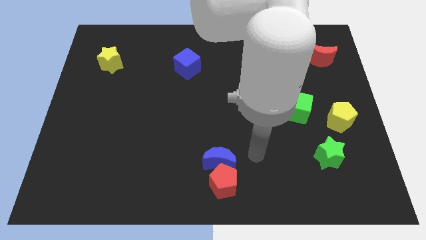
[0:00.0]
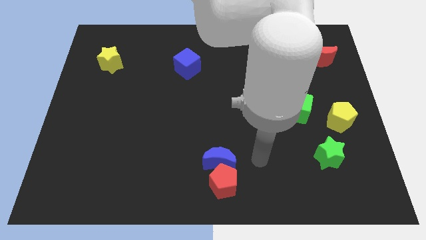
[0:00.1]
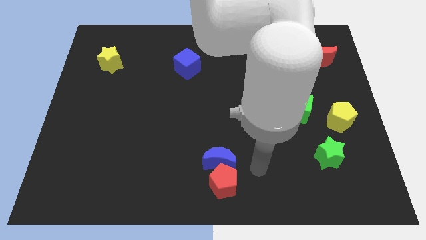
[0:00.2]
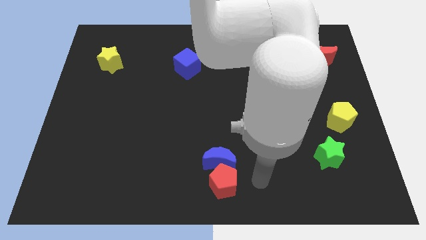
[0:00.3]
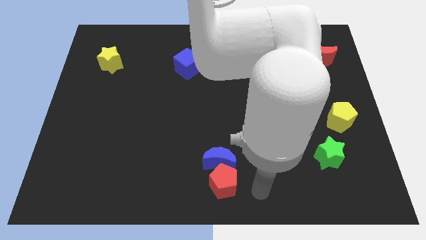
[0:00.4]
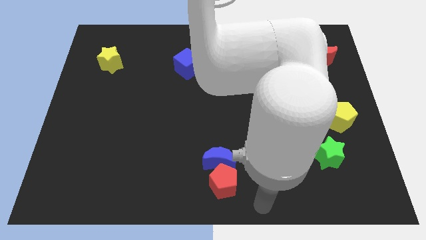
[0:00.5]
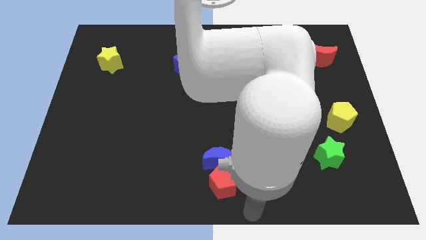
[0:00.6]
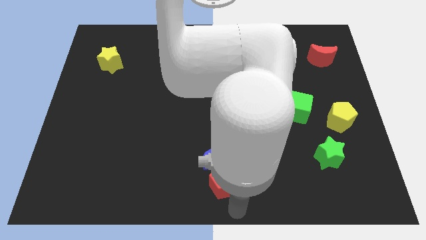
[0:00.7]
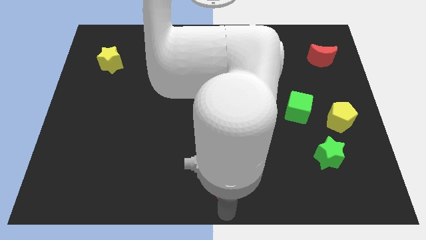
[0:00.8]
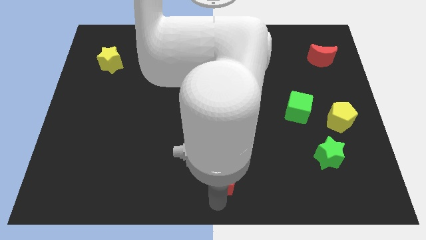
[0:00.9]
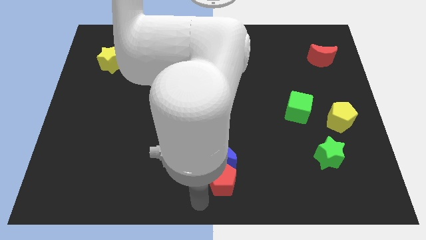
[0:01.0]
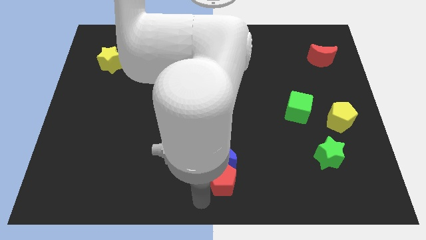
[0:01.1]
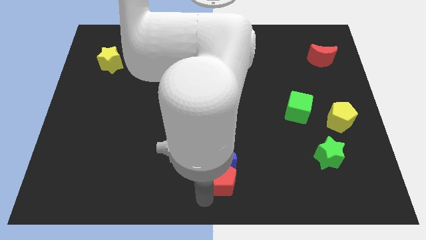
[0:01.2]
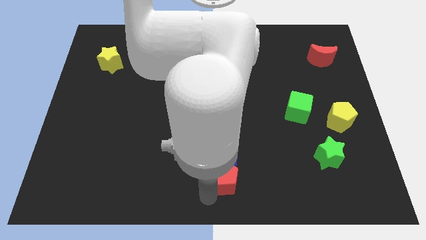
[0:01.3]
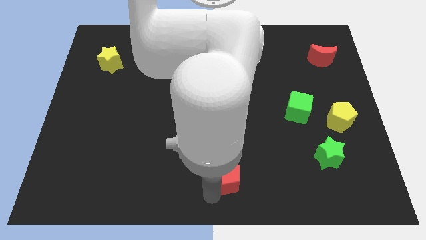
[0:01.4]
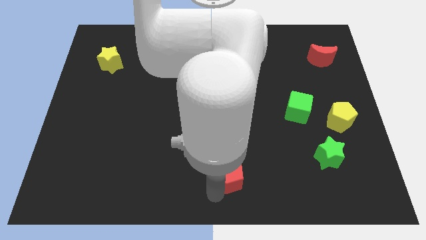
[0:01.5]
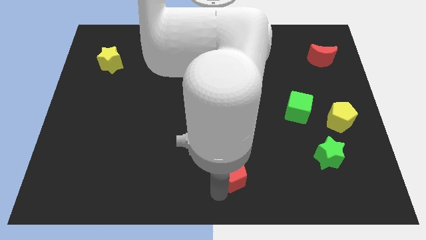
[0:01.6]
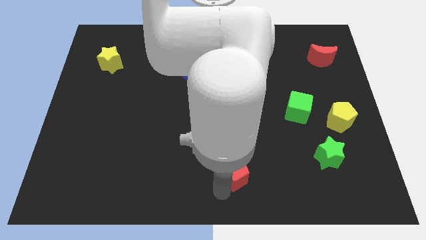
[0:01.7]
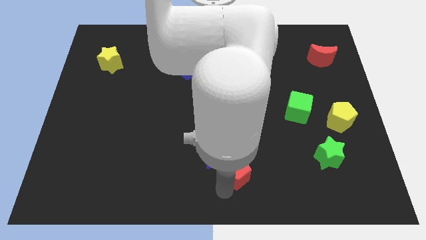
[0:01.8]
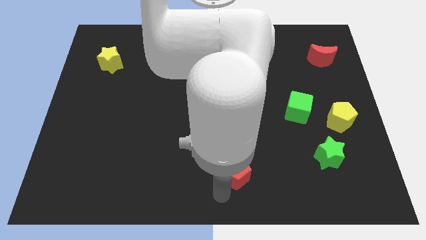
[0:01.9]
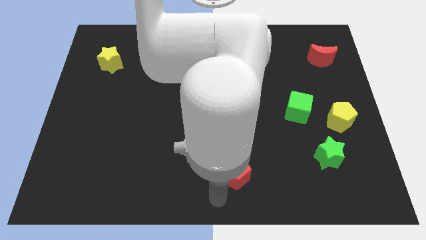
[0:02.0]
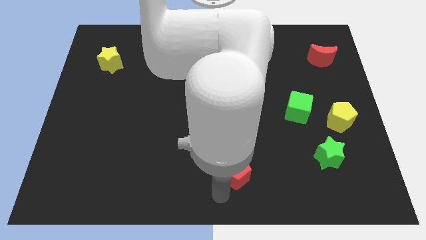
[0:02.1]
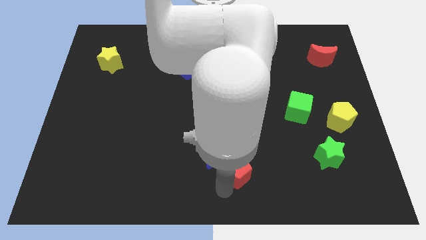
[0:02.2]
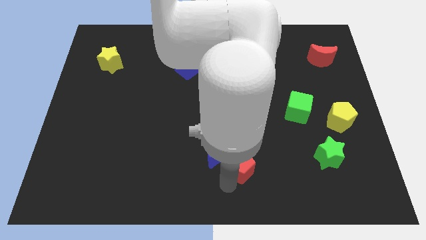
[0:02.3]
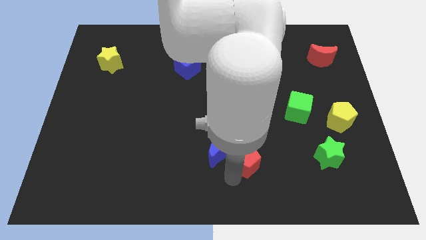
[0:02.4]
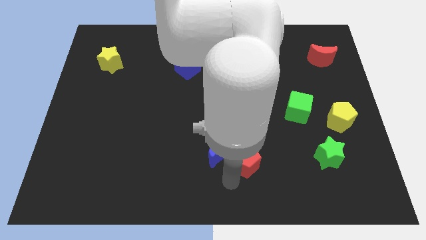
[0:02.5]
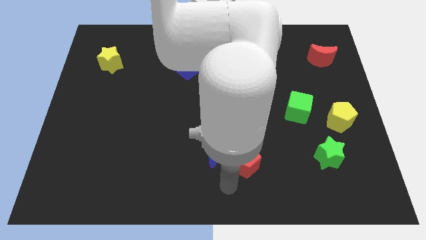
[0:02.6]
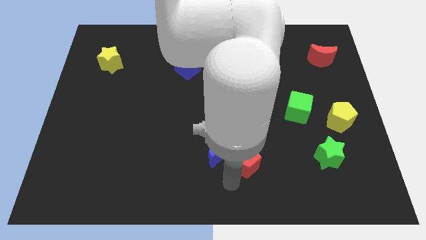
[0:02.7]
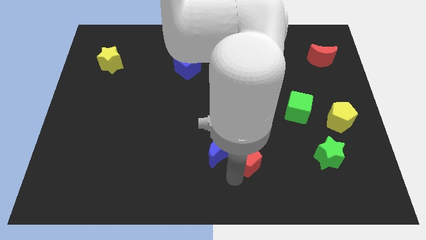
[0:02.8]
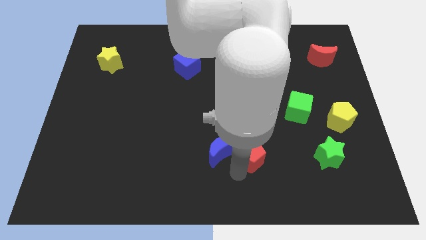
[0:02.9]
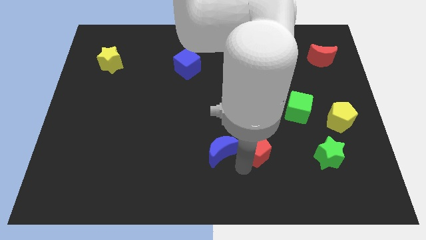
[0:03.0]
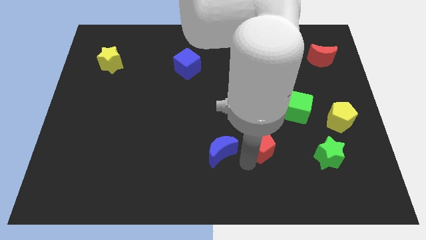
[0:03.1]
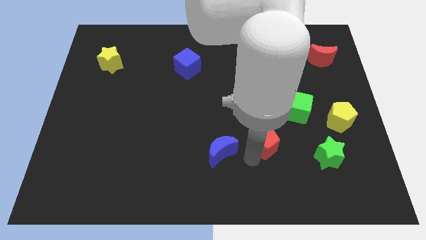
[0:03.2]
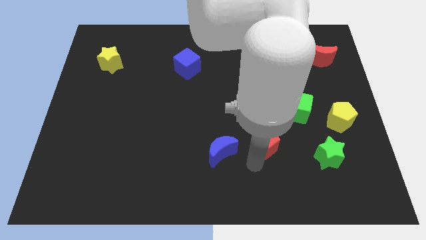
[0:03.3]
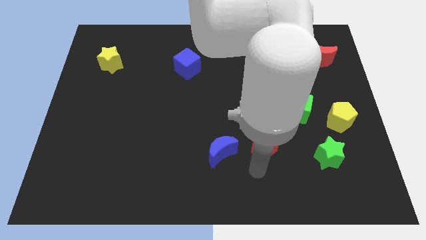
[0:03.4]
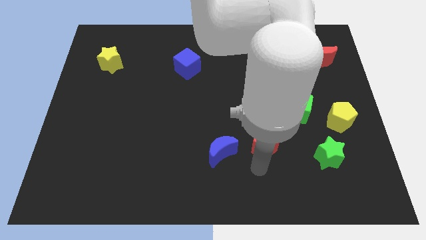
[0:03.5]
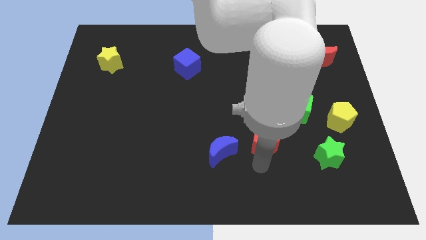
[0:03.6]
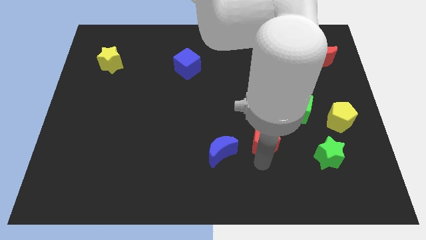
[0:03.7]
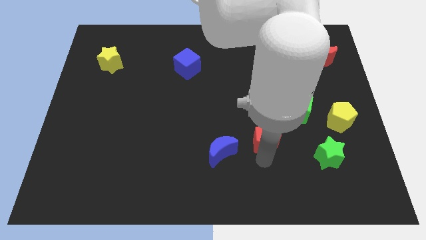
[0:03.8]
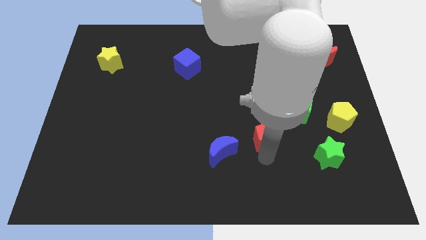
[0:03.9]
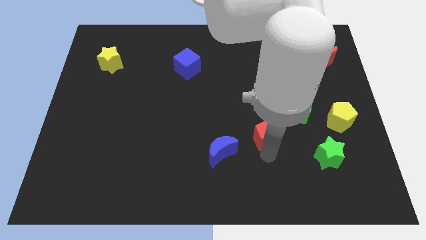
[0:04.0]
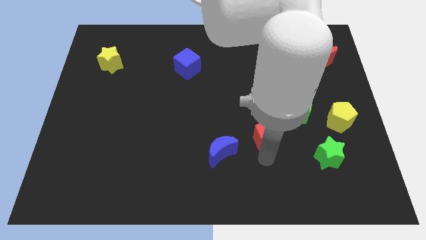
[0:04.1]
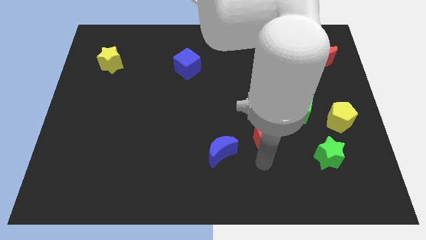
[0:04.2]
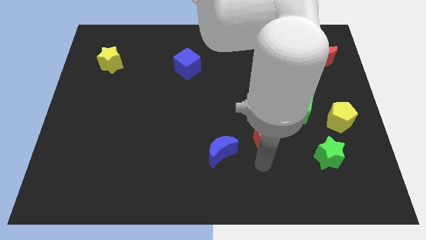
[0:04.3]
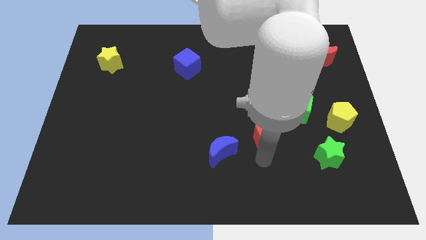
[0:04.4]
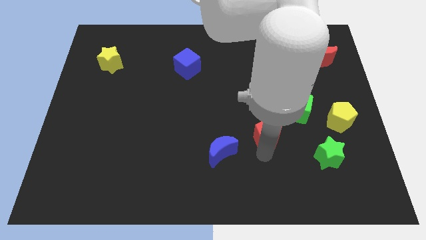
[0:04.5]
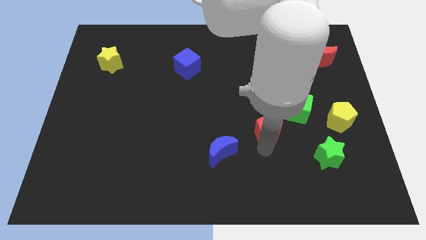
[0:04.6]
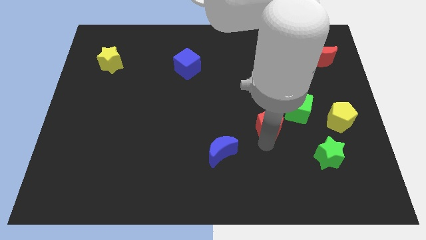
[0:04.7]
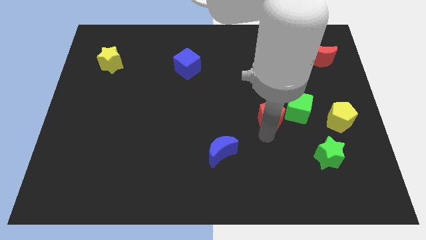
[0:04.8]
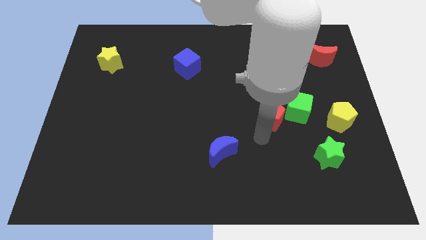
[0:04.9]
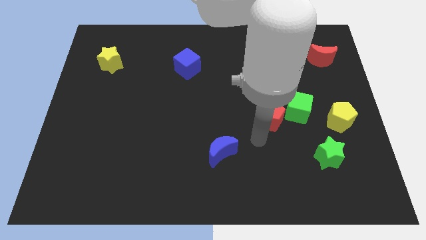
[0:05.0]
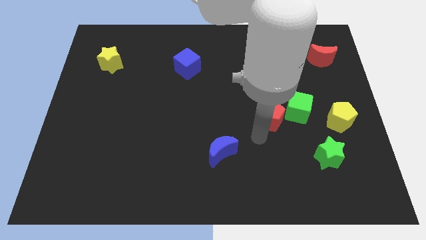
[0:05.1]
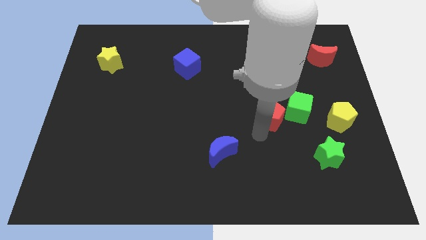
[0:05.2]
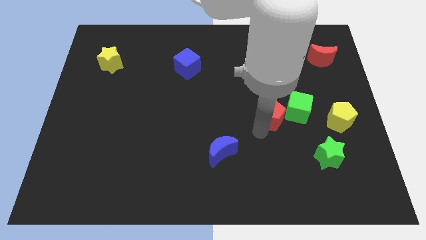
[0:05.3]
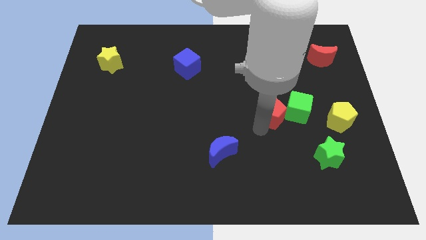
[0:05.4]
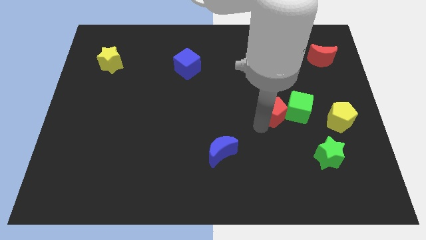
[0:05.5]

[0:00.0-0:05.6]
push the red pentagon diagonally up and to the right

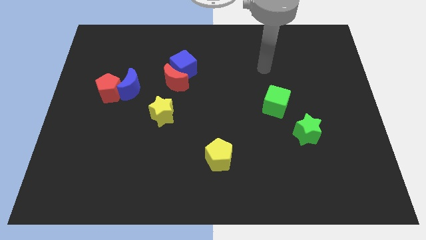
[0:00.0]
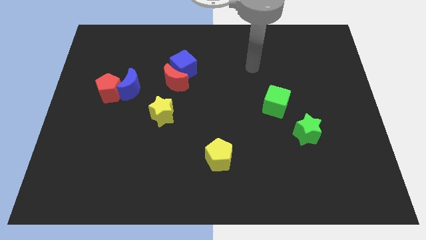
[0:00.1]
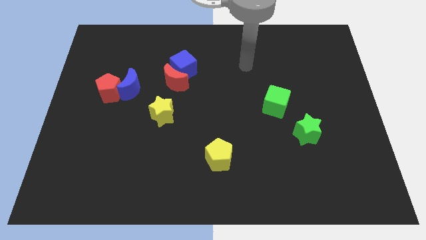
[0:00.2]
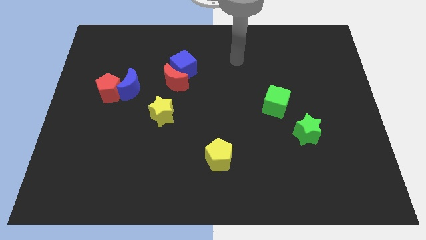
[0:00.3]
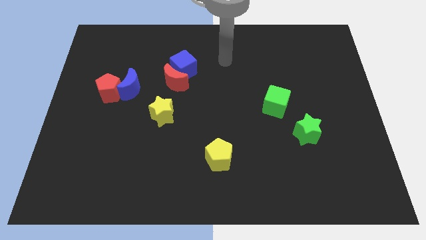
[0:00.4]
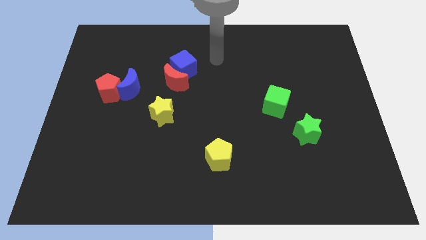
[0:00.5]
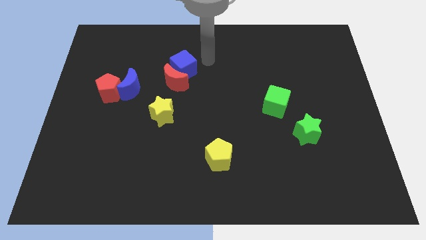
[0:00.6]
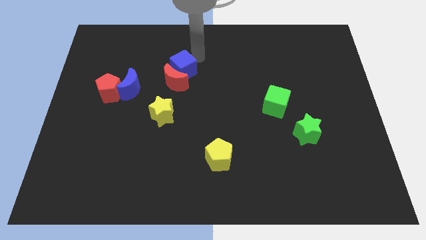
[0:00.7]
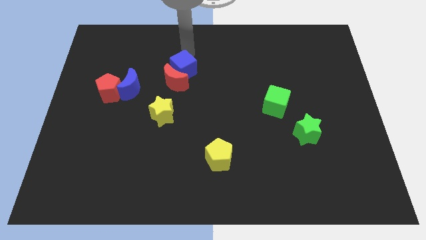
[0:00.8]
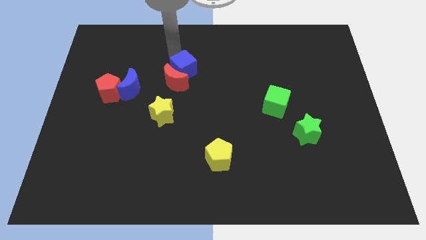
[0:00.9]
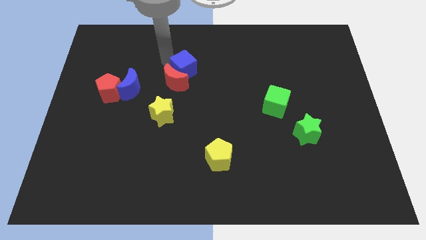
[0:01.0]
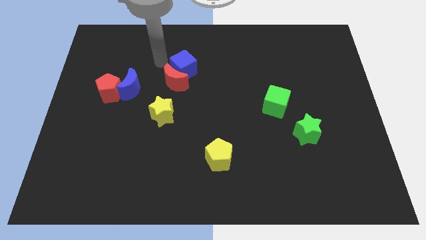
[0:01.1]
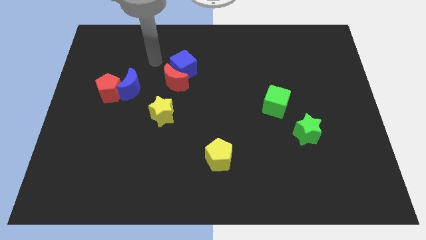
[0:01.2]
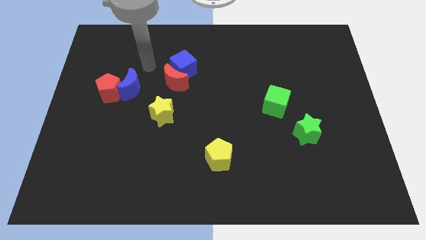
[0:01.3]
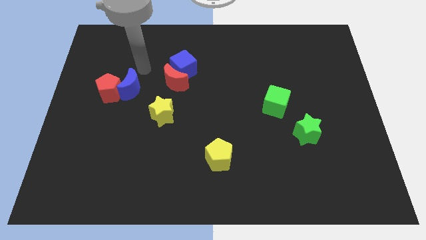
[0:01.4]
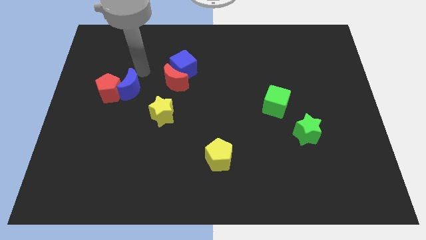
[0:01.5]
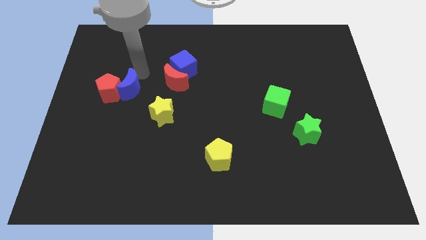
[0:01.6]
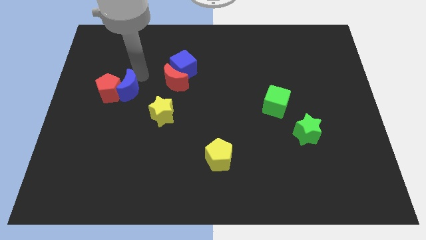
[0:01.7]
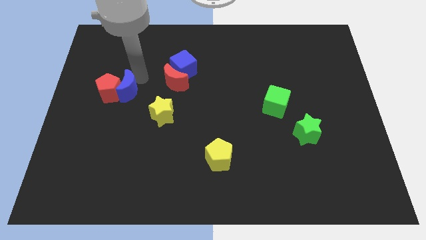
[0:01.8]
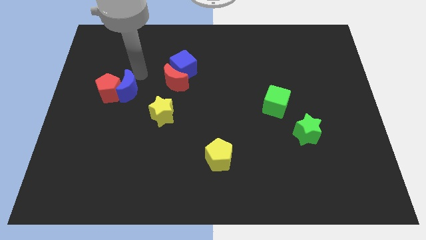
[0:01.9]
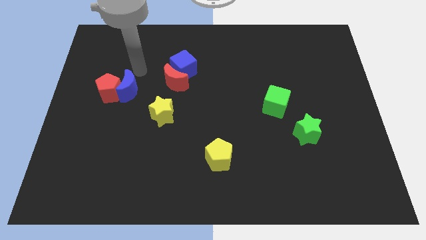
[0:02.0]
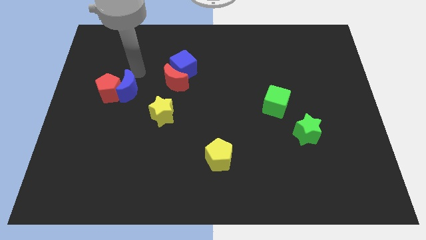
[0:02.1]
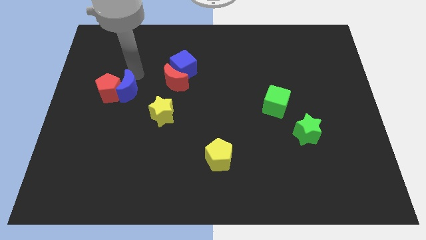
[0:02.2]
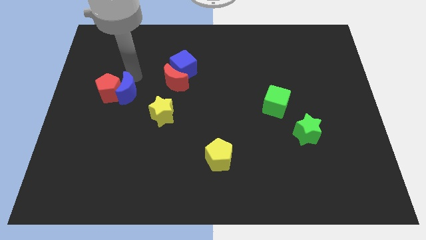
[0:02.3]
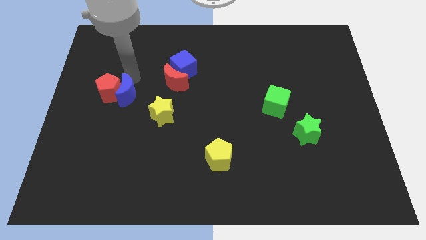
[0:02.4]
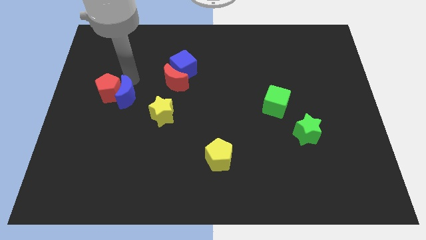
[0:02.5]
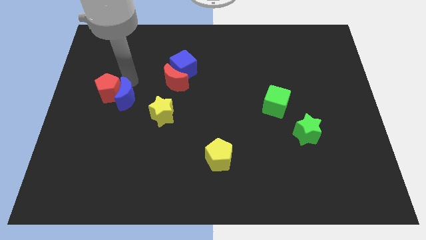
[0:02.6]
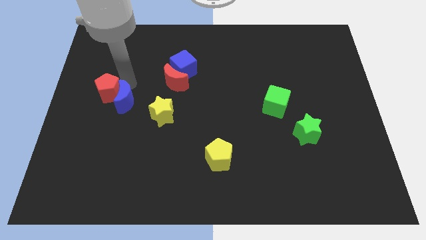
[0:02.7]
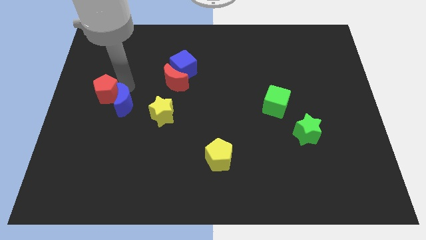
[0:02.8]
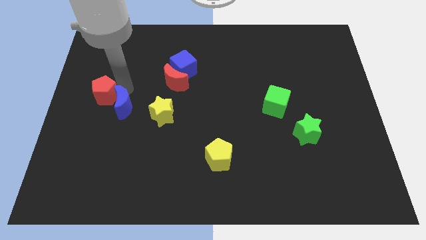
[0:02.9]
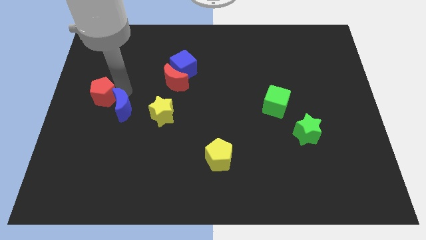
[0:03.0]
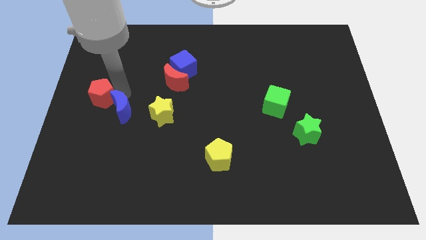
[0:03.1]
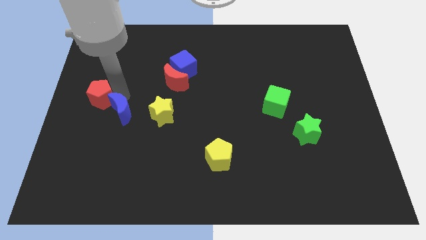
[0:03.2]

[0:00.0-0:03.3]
move the blue moon down somewhat
